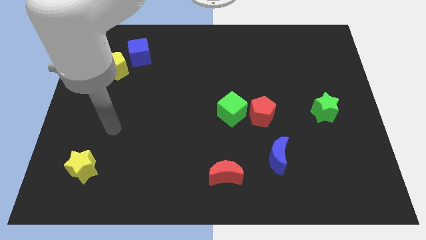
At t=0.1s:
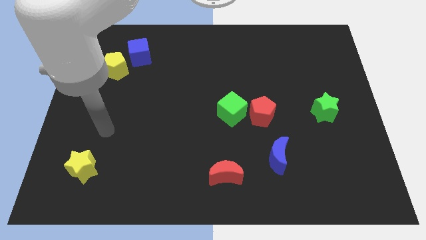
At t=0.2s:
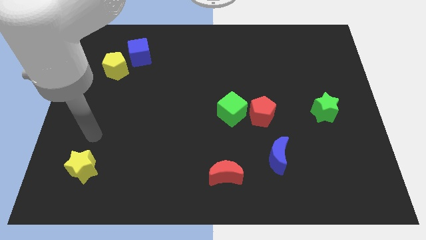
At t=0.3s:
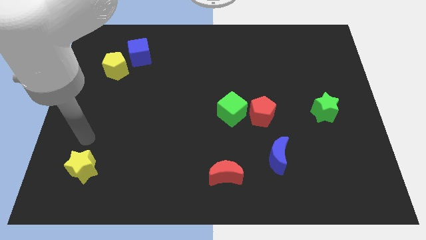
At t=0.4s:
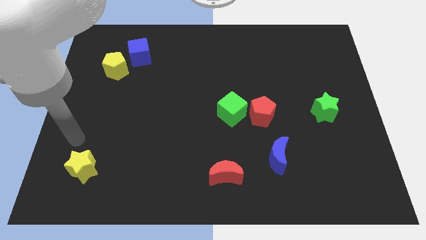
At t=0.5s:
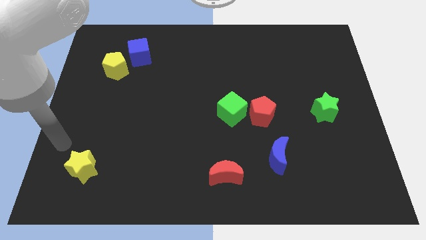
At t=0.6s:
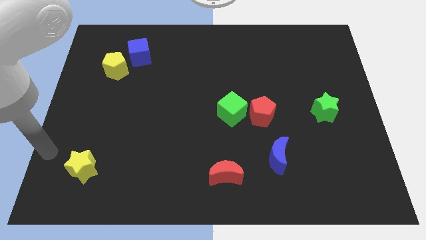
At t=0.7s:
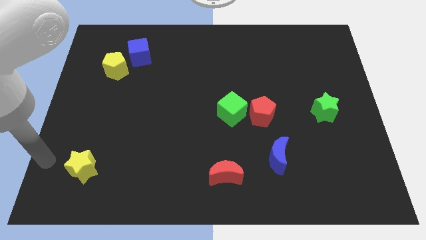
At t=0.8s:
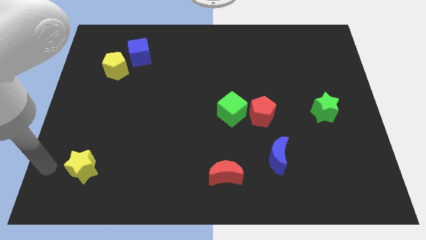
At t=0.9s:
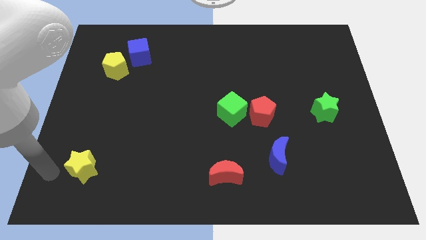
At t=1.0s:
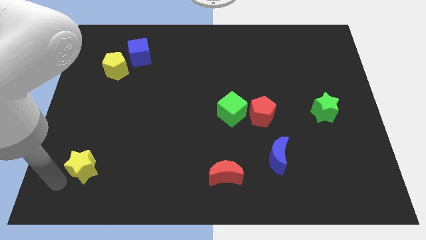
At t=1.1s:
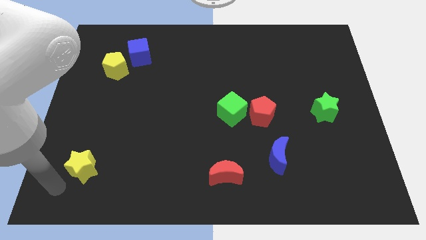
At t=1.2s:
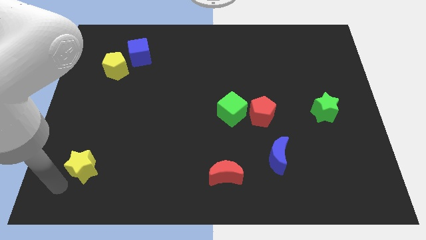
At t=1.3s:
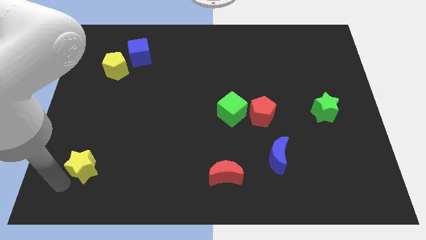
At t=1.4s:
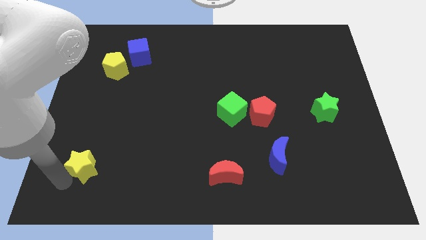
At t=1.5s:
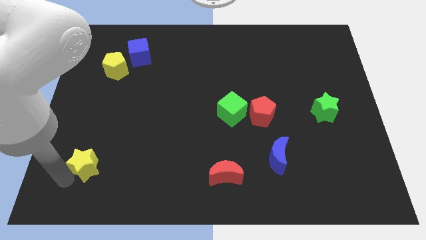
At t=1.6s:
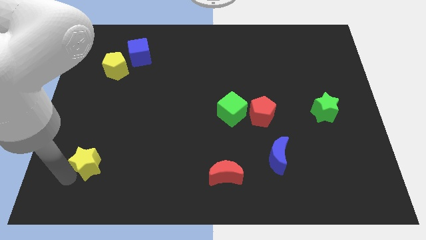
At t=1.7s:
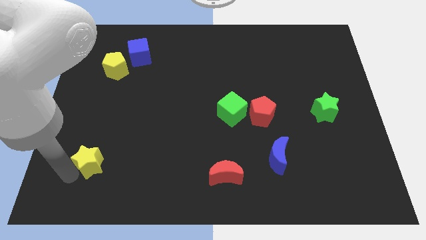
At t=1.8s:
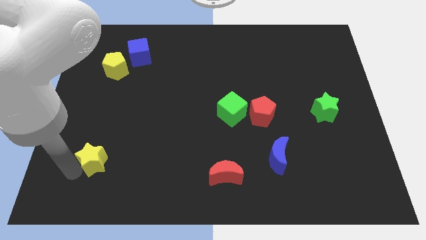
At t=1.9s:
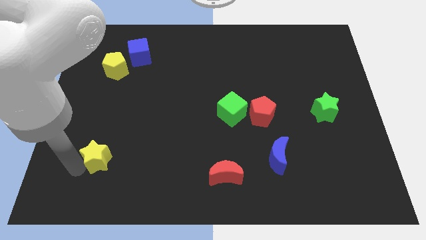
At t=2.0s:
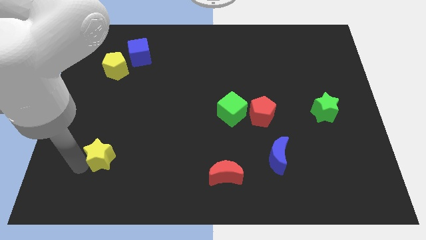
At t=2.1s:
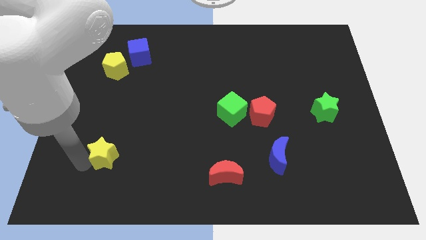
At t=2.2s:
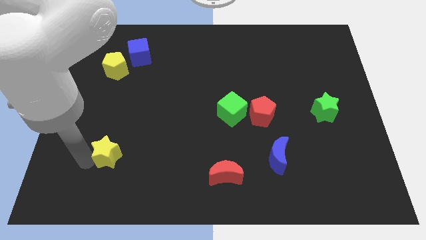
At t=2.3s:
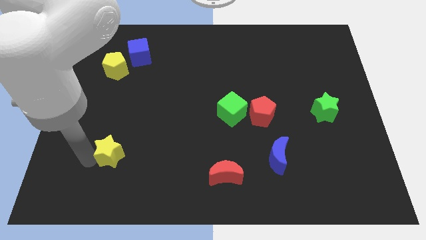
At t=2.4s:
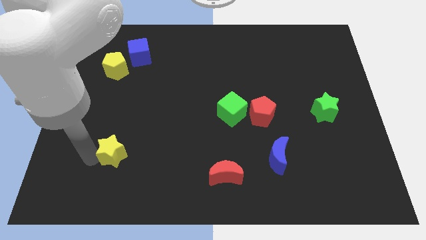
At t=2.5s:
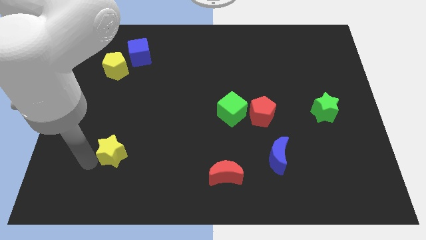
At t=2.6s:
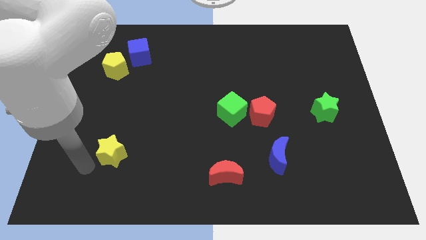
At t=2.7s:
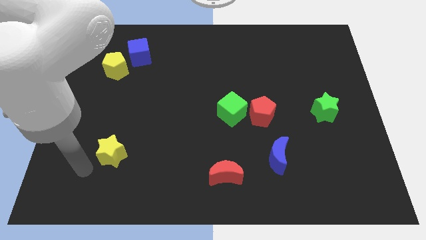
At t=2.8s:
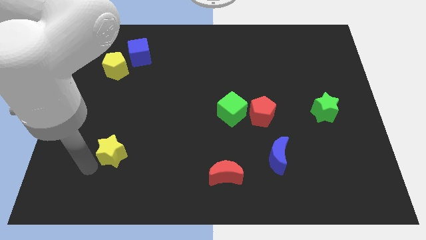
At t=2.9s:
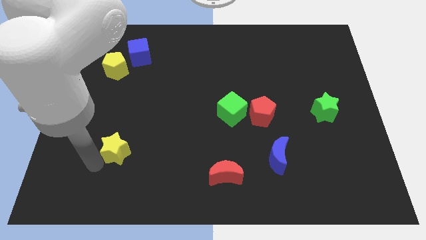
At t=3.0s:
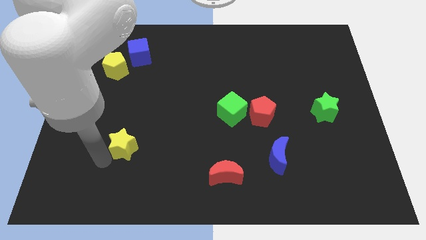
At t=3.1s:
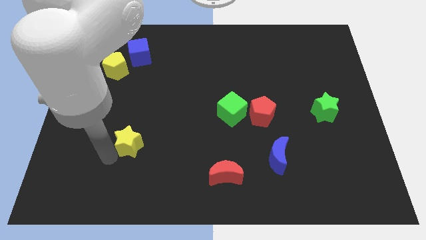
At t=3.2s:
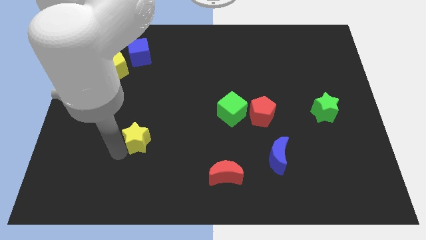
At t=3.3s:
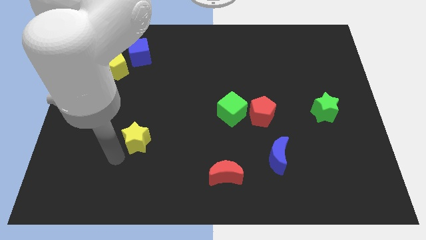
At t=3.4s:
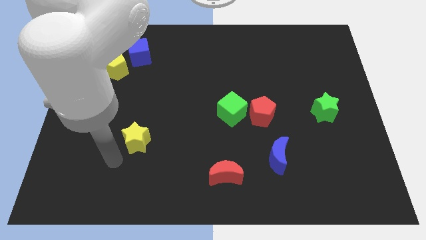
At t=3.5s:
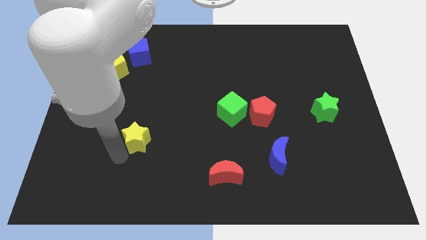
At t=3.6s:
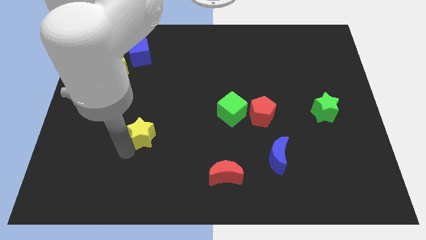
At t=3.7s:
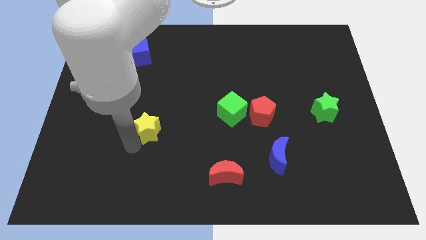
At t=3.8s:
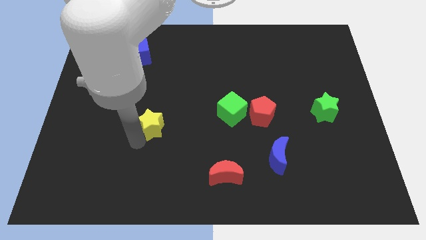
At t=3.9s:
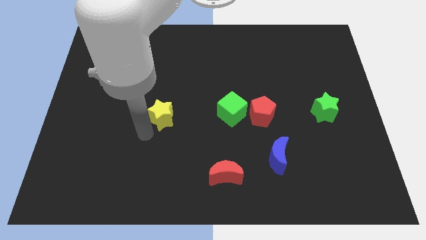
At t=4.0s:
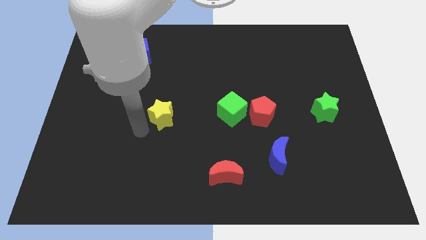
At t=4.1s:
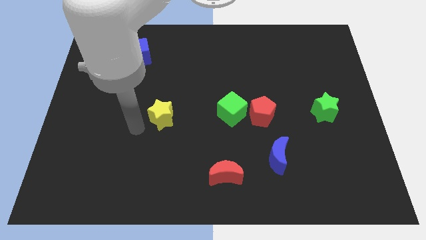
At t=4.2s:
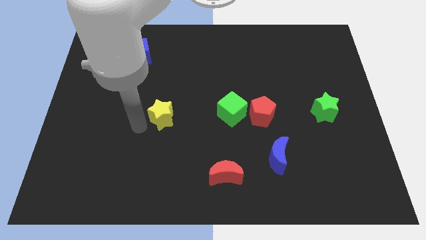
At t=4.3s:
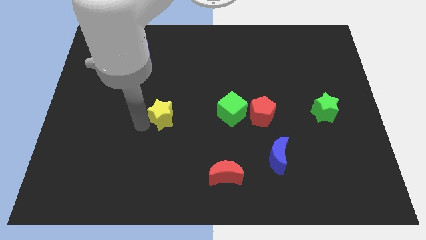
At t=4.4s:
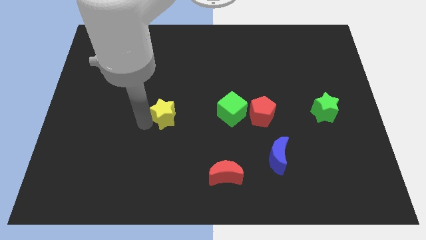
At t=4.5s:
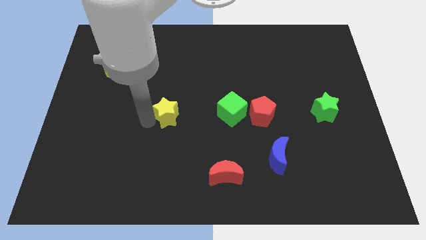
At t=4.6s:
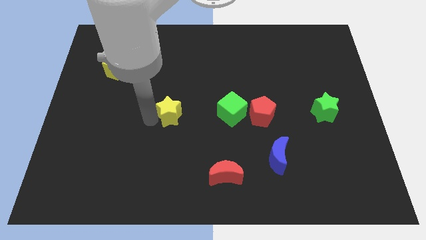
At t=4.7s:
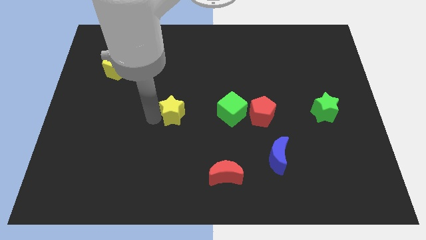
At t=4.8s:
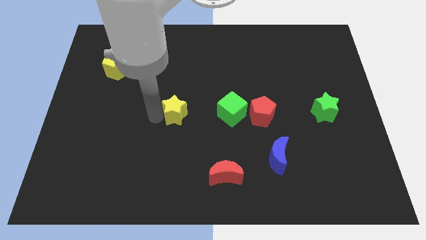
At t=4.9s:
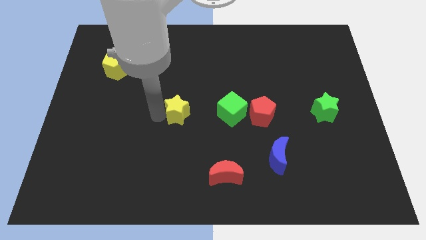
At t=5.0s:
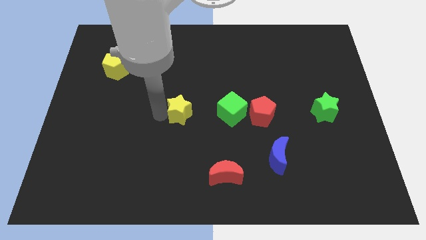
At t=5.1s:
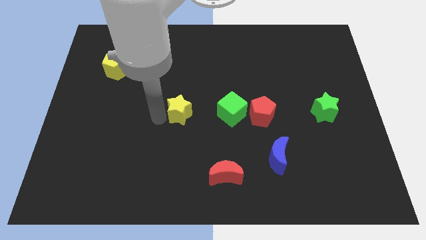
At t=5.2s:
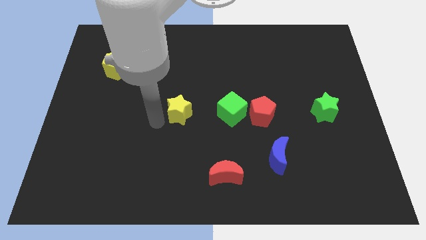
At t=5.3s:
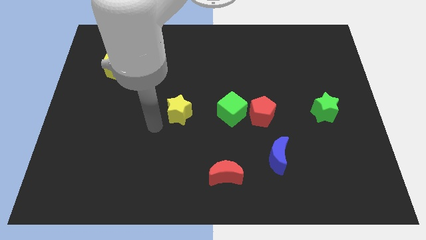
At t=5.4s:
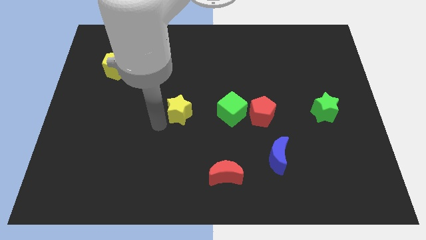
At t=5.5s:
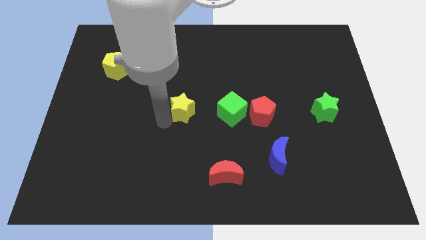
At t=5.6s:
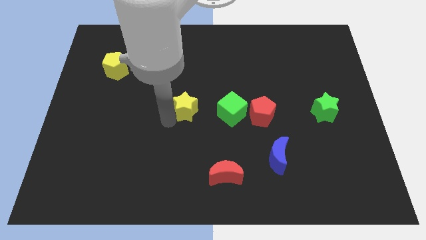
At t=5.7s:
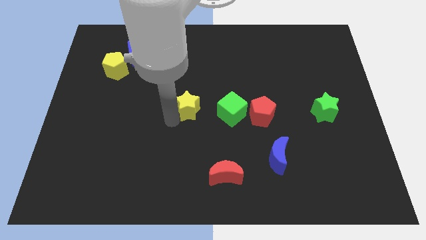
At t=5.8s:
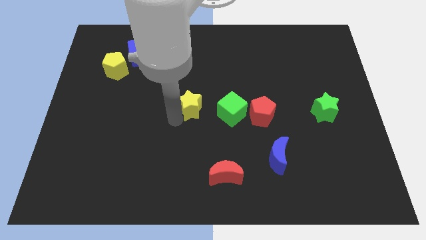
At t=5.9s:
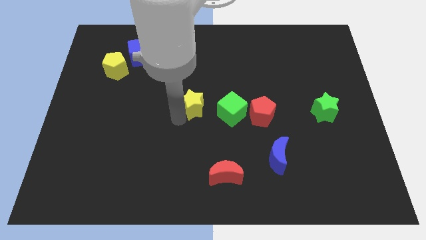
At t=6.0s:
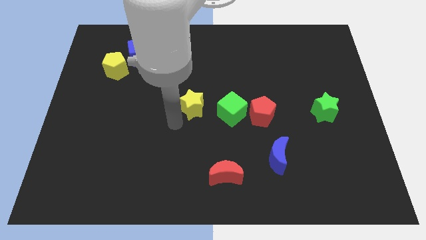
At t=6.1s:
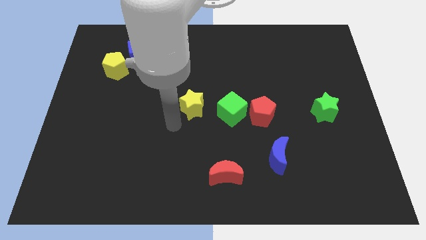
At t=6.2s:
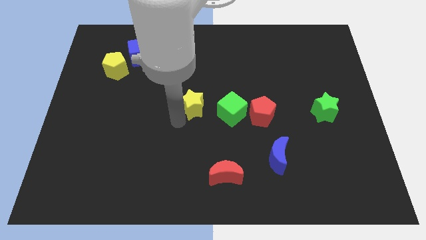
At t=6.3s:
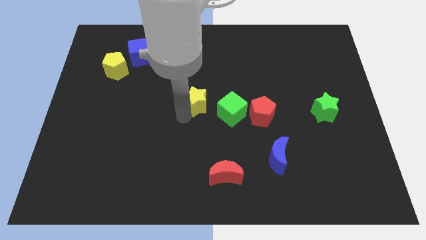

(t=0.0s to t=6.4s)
put the yellow star diagonally up and to the left of the green cube

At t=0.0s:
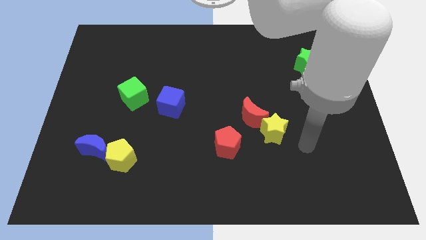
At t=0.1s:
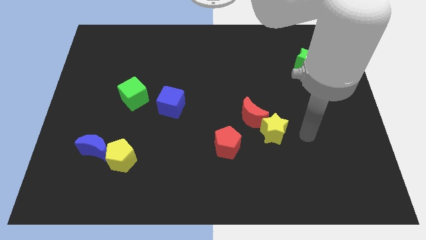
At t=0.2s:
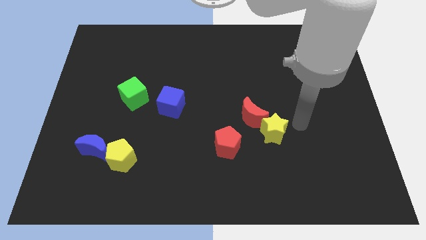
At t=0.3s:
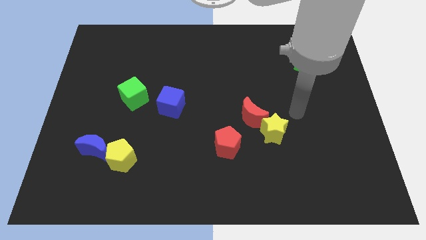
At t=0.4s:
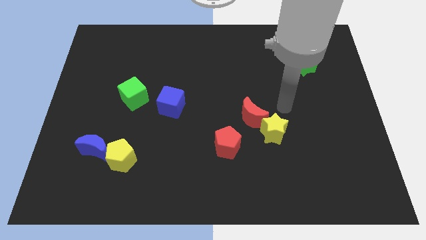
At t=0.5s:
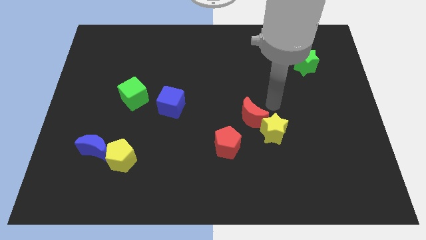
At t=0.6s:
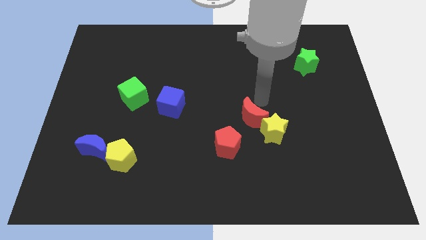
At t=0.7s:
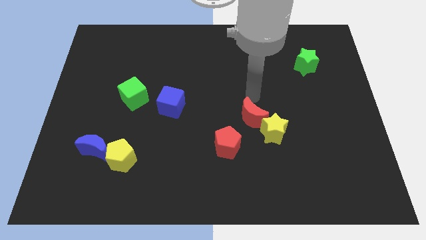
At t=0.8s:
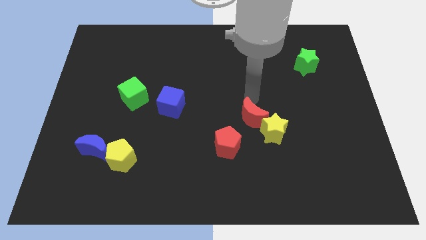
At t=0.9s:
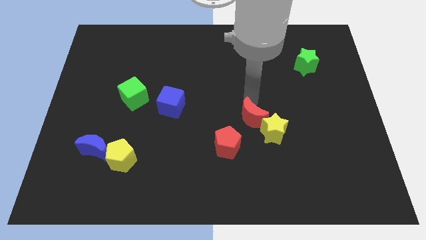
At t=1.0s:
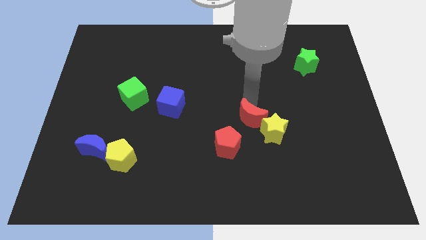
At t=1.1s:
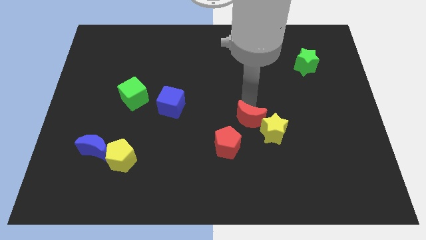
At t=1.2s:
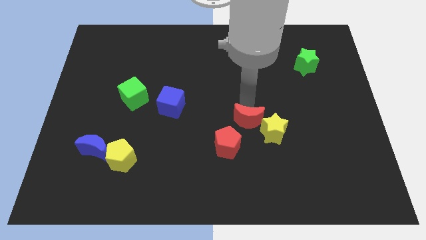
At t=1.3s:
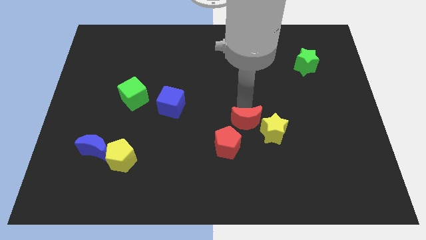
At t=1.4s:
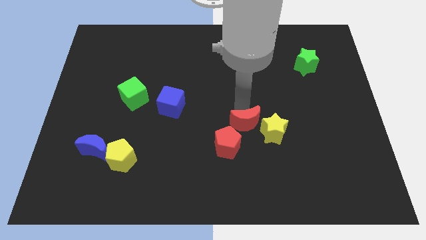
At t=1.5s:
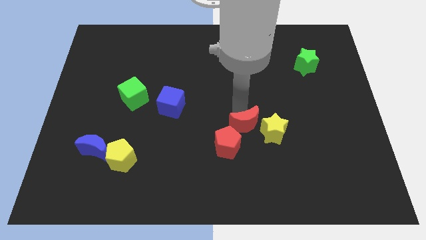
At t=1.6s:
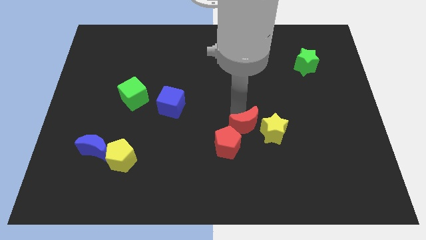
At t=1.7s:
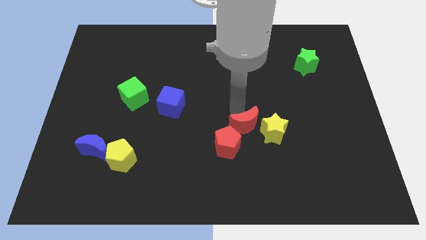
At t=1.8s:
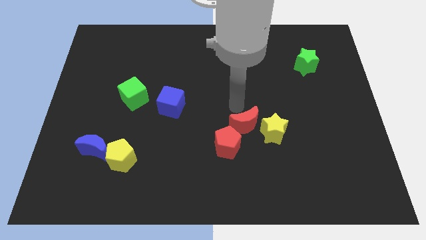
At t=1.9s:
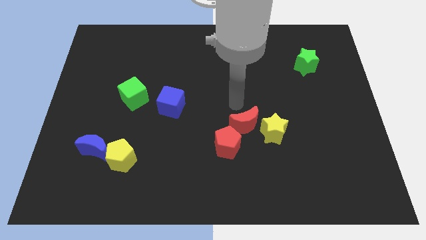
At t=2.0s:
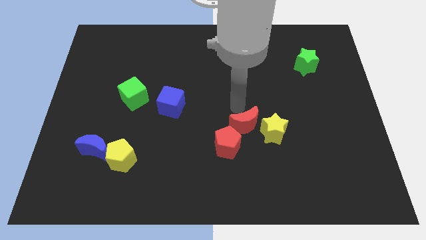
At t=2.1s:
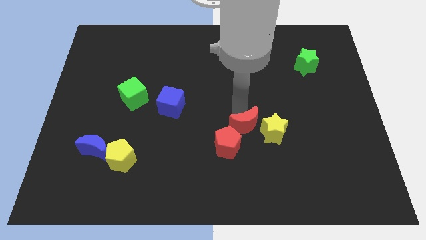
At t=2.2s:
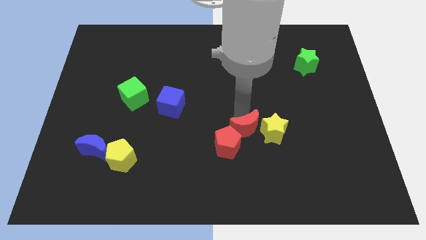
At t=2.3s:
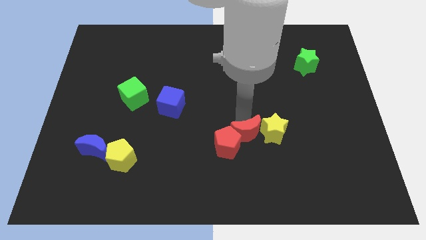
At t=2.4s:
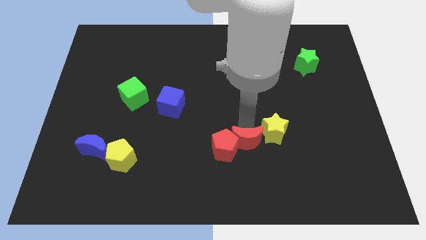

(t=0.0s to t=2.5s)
put the red moon to the bottom right of the red pentagon
